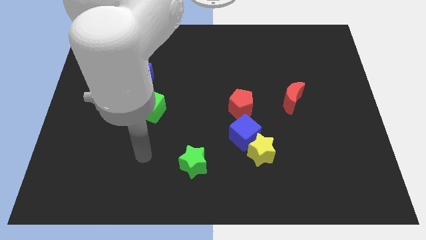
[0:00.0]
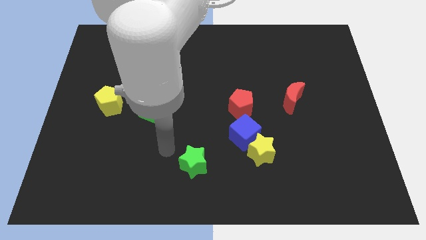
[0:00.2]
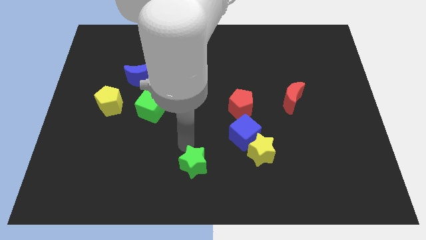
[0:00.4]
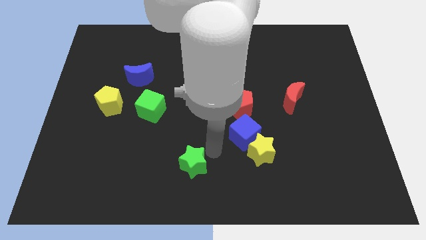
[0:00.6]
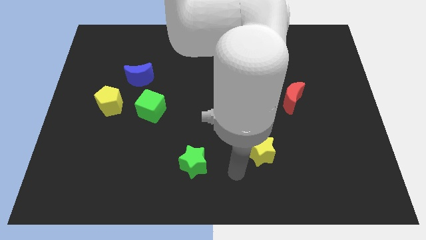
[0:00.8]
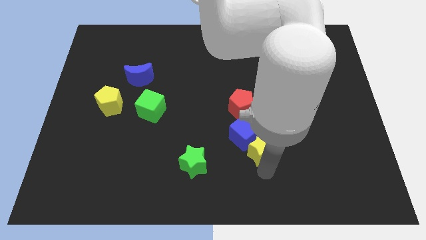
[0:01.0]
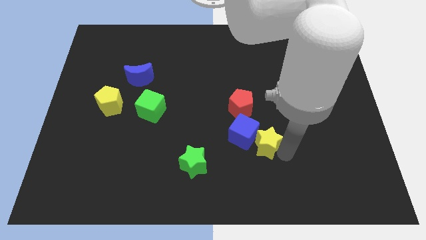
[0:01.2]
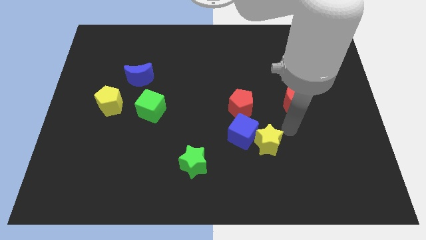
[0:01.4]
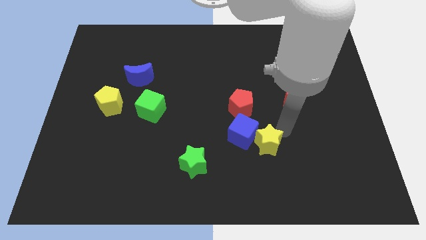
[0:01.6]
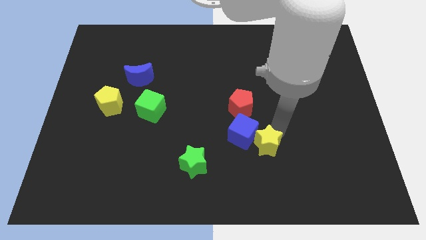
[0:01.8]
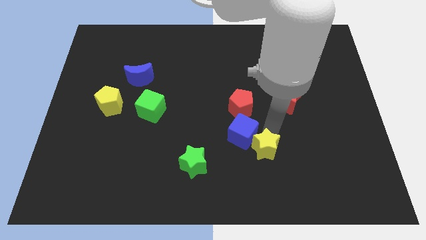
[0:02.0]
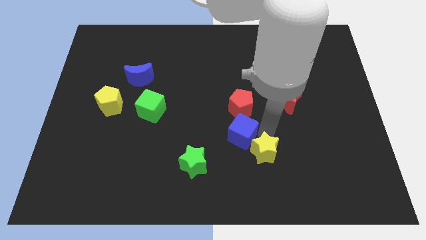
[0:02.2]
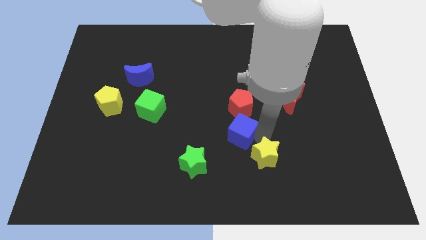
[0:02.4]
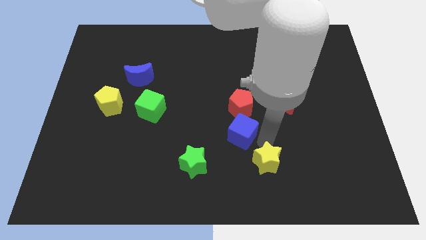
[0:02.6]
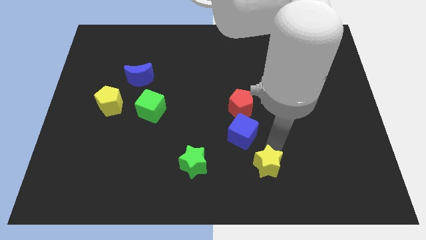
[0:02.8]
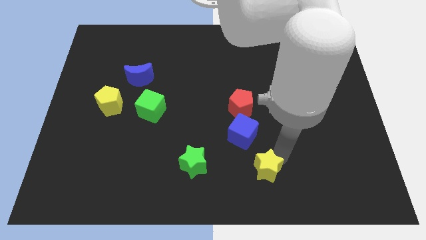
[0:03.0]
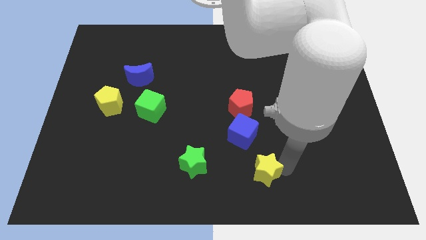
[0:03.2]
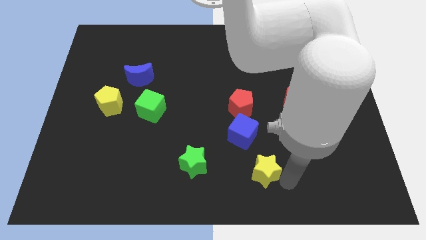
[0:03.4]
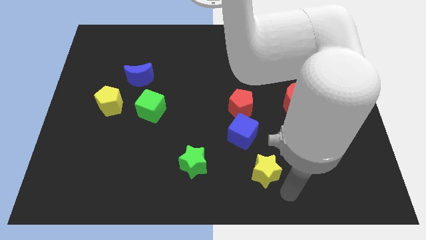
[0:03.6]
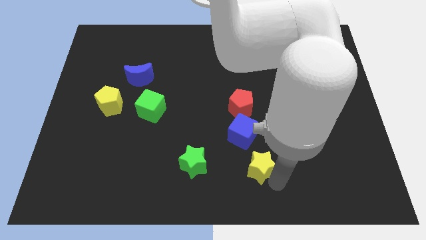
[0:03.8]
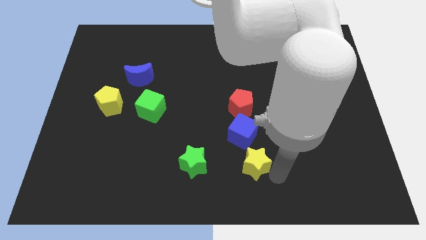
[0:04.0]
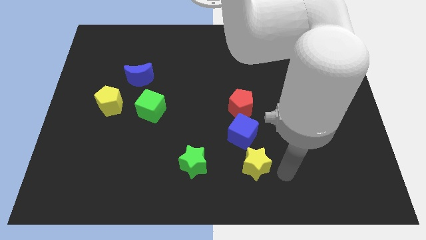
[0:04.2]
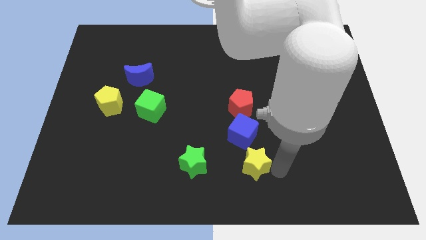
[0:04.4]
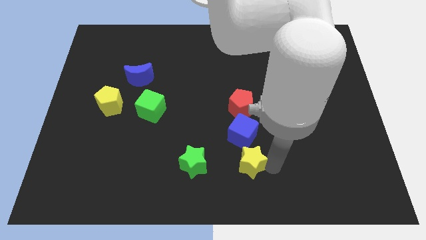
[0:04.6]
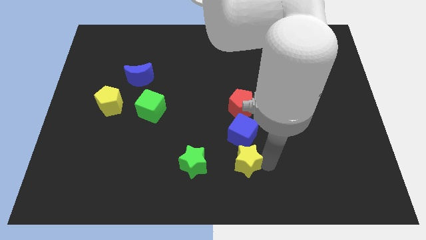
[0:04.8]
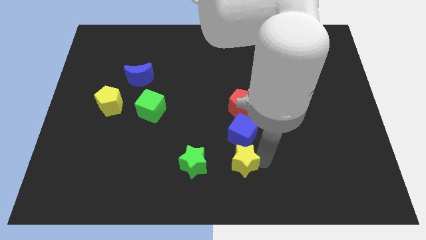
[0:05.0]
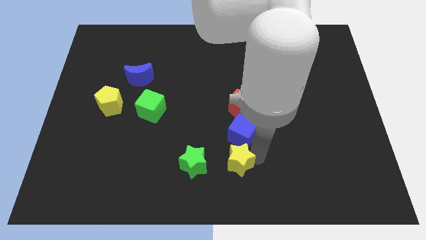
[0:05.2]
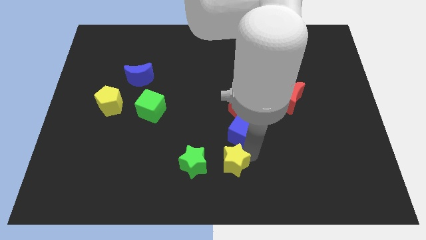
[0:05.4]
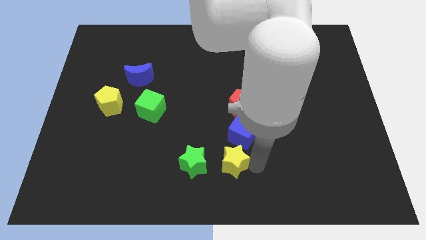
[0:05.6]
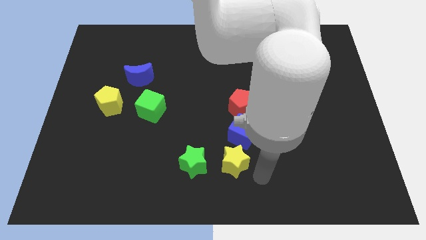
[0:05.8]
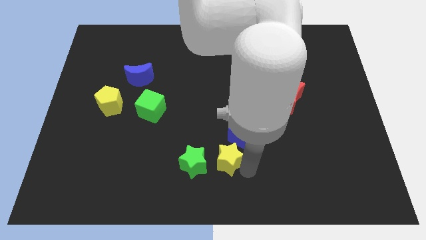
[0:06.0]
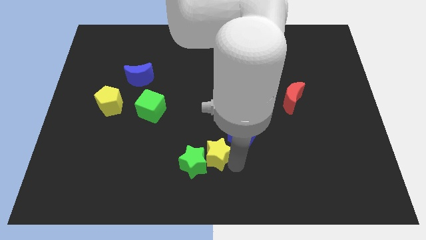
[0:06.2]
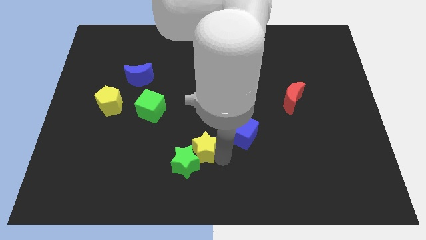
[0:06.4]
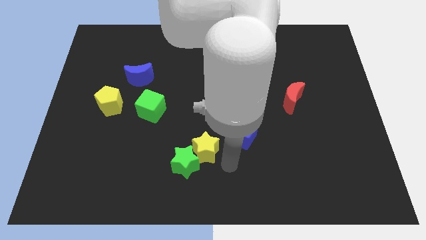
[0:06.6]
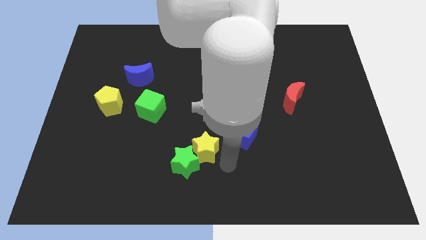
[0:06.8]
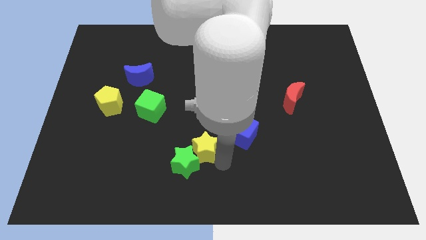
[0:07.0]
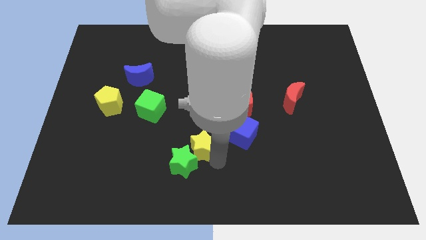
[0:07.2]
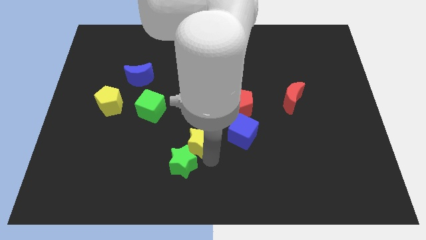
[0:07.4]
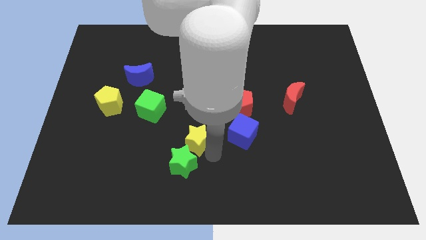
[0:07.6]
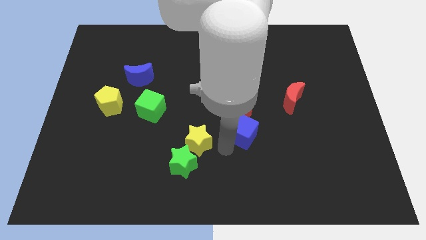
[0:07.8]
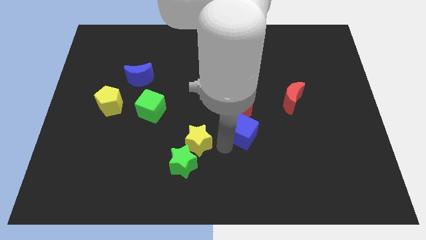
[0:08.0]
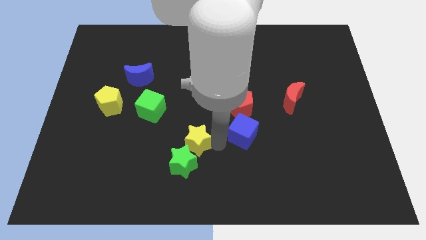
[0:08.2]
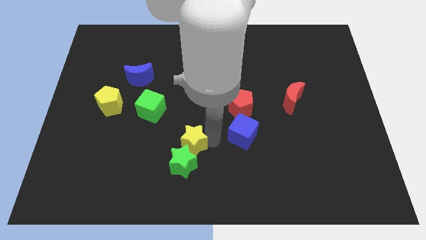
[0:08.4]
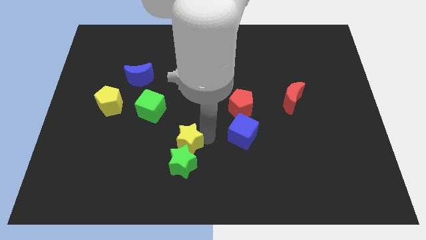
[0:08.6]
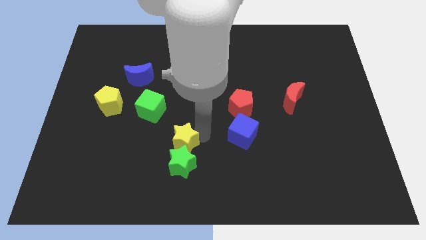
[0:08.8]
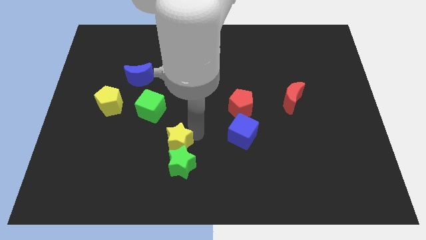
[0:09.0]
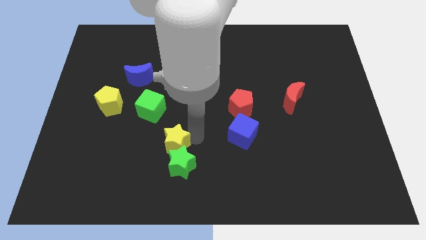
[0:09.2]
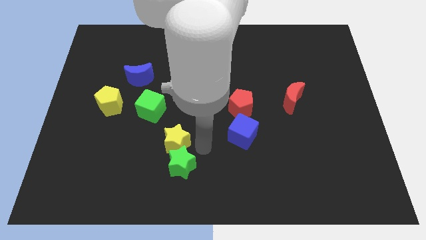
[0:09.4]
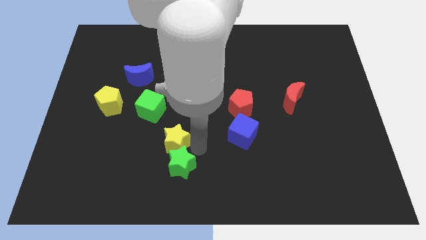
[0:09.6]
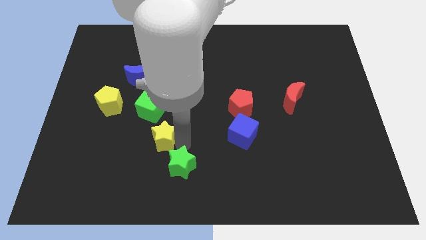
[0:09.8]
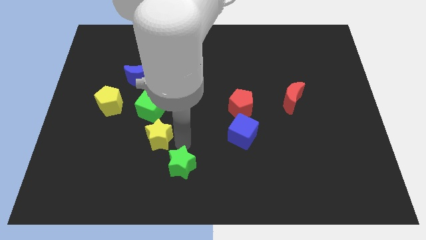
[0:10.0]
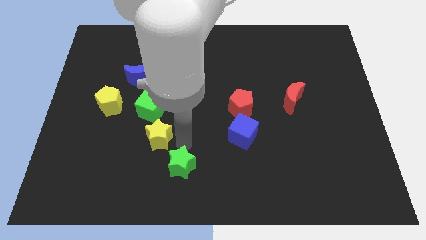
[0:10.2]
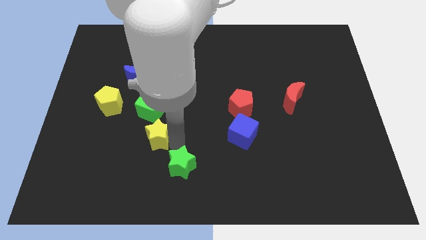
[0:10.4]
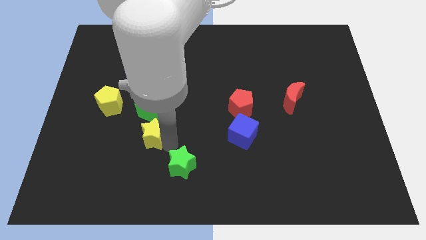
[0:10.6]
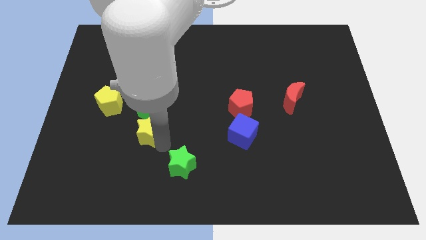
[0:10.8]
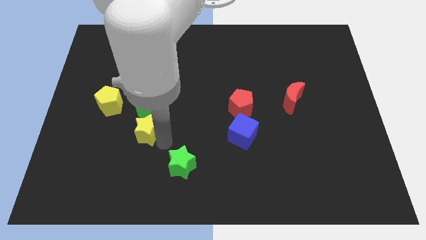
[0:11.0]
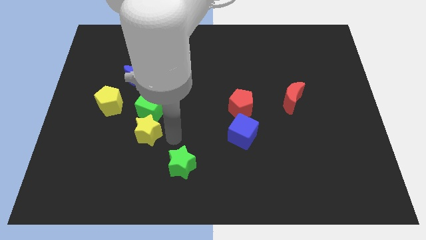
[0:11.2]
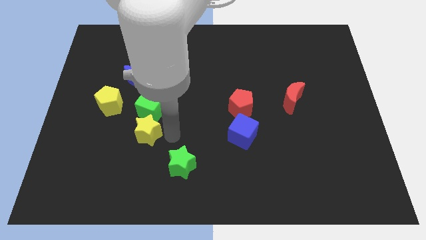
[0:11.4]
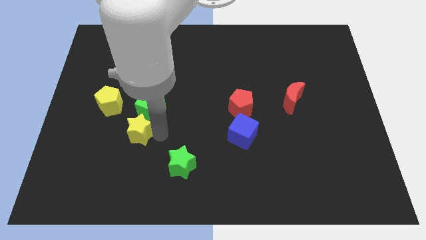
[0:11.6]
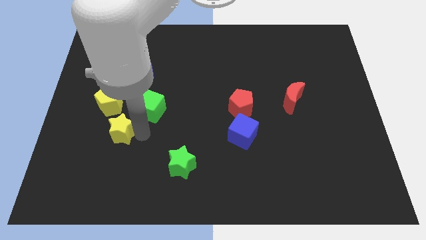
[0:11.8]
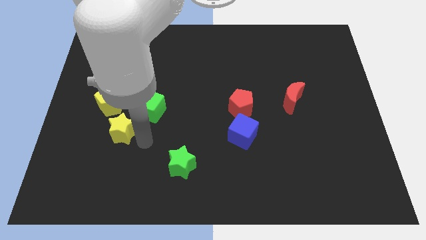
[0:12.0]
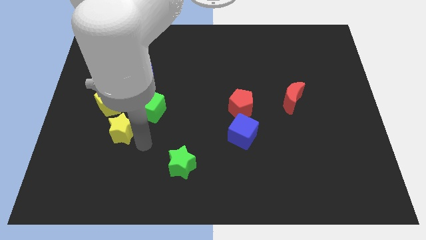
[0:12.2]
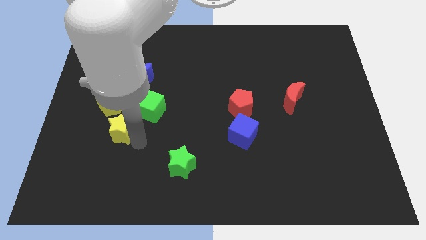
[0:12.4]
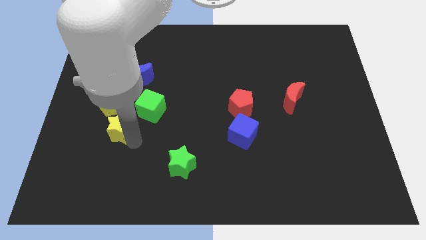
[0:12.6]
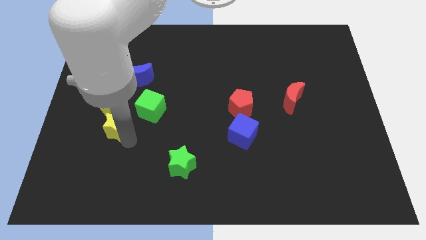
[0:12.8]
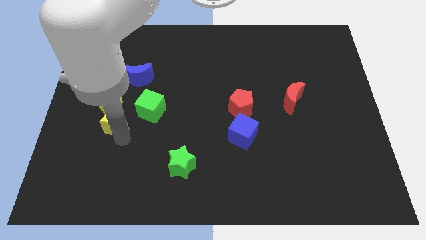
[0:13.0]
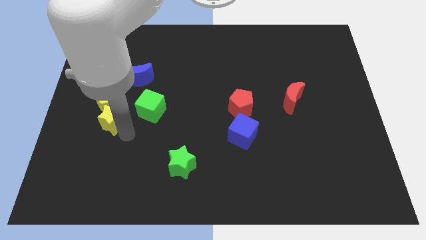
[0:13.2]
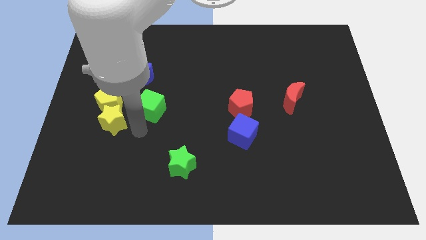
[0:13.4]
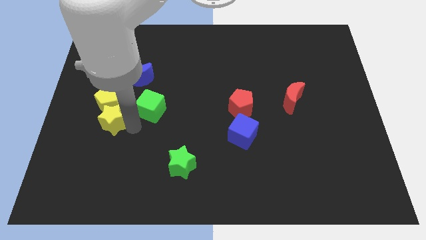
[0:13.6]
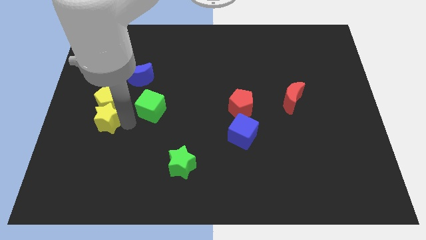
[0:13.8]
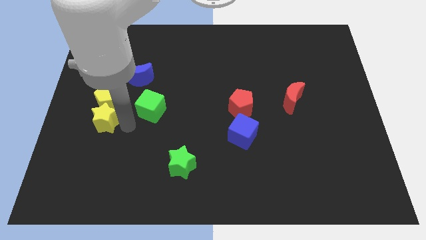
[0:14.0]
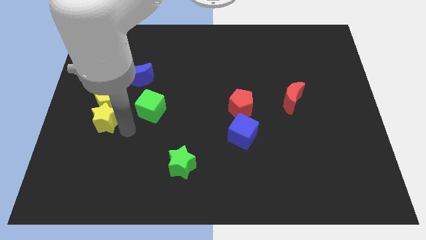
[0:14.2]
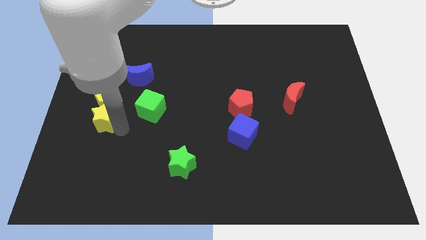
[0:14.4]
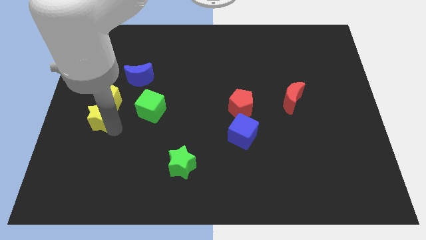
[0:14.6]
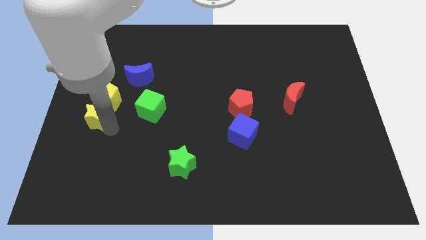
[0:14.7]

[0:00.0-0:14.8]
push the yellow star to the left side of the board
